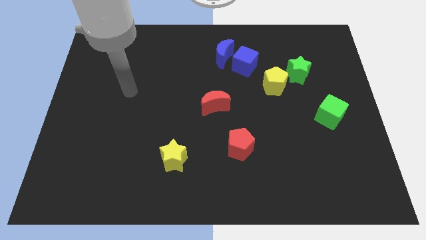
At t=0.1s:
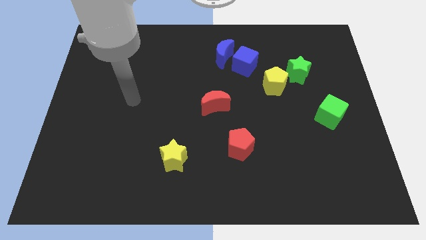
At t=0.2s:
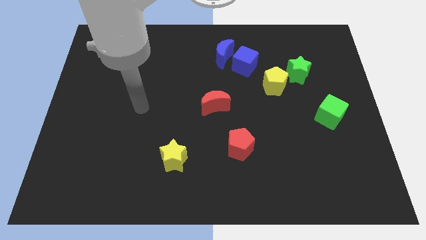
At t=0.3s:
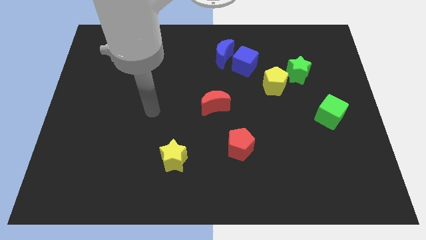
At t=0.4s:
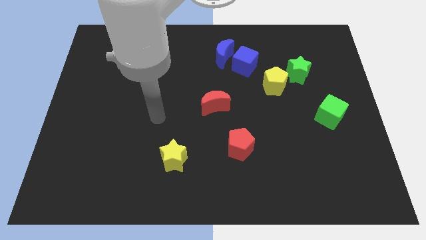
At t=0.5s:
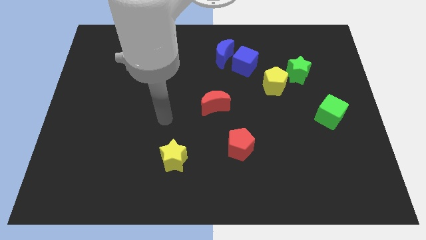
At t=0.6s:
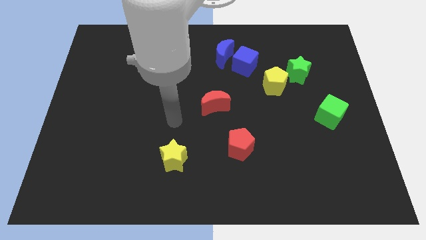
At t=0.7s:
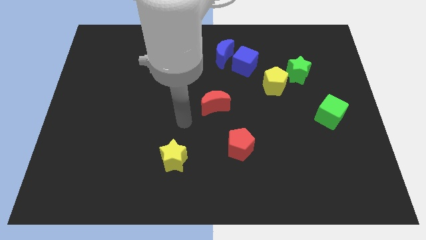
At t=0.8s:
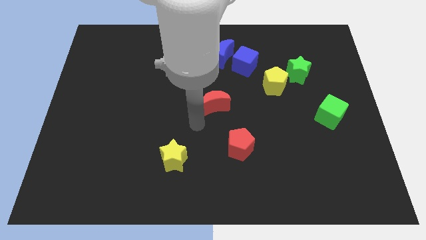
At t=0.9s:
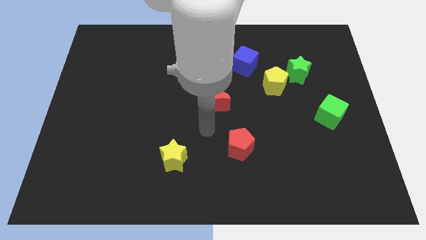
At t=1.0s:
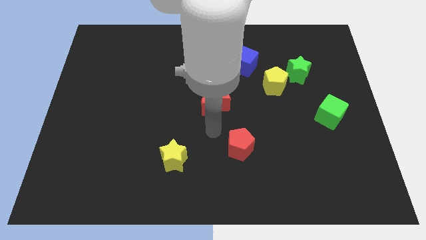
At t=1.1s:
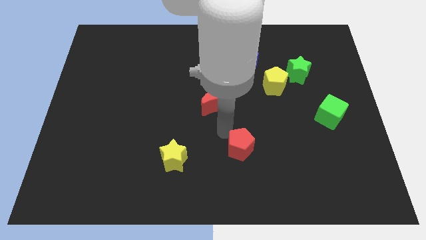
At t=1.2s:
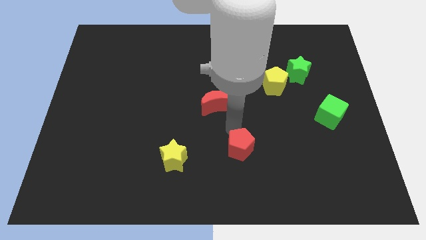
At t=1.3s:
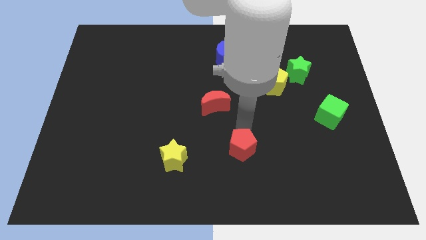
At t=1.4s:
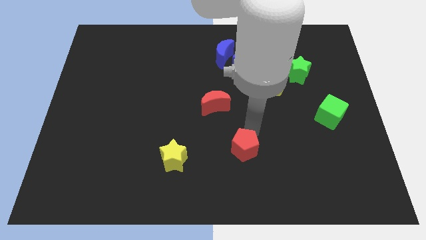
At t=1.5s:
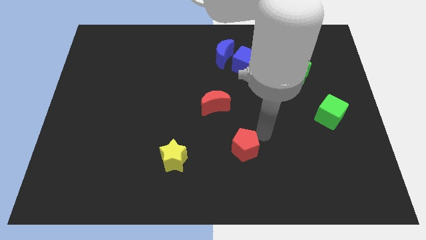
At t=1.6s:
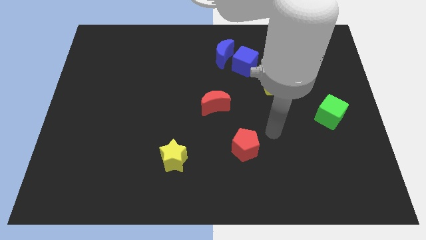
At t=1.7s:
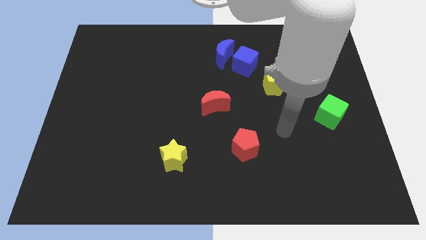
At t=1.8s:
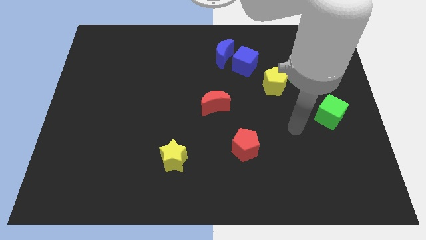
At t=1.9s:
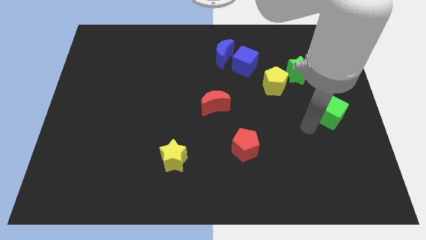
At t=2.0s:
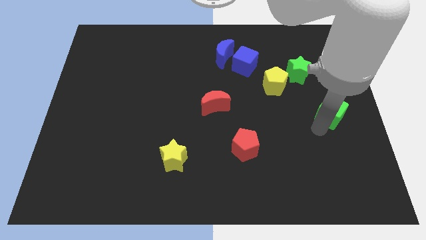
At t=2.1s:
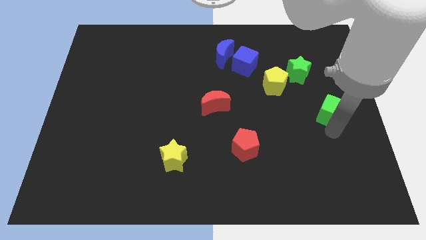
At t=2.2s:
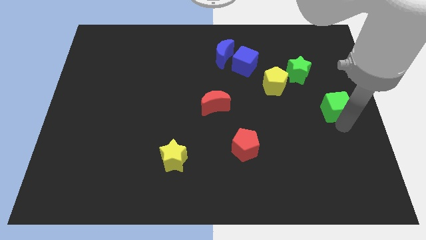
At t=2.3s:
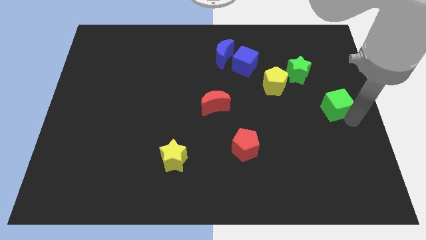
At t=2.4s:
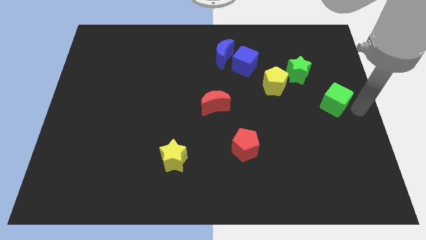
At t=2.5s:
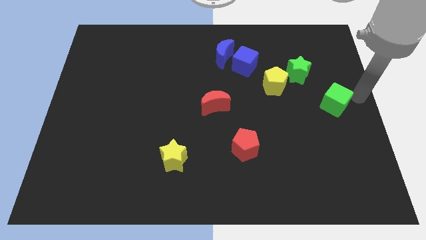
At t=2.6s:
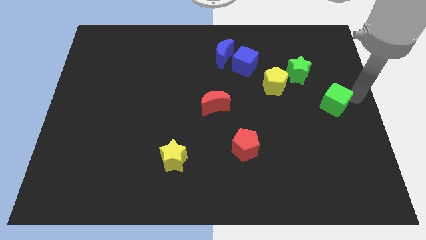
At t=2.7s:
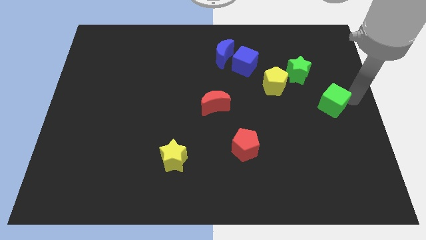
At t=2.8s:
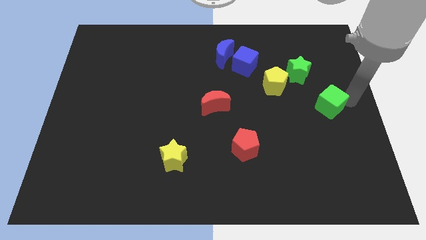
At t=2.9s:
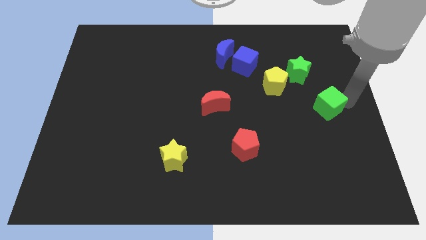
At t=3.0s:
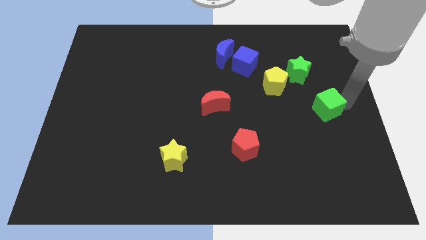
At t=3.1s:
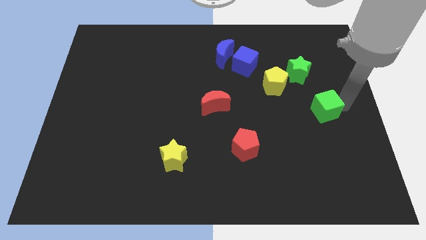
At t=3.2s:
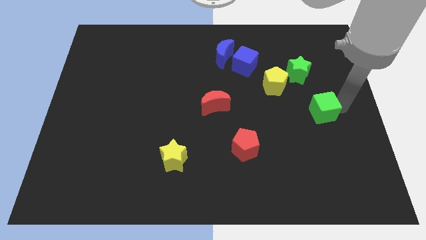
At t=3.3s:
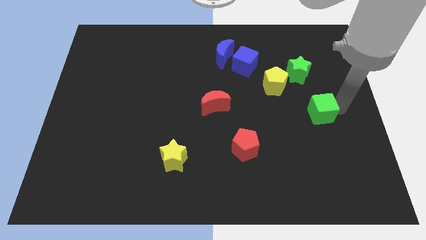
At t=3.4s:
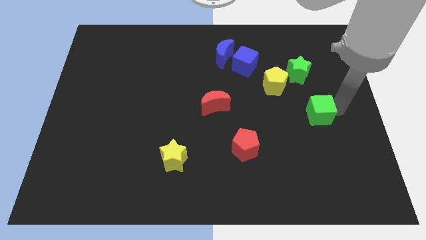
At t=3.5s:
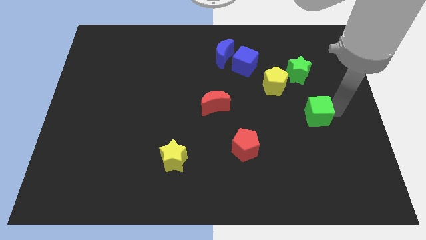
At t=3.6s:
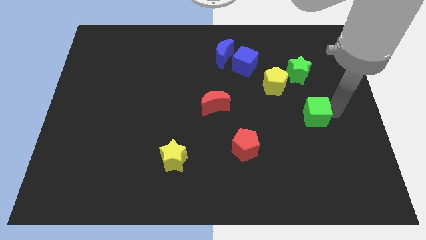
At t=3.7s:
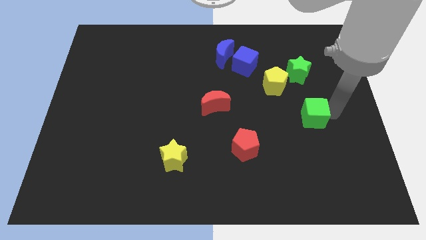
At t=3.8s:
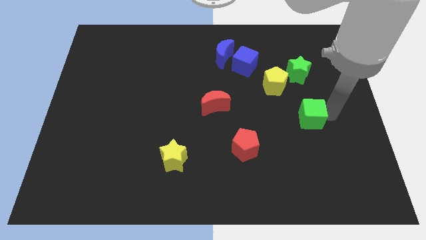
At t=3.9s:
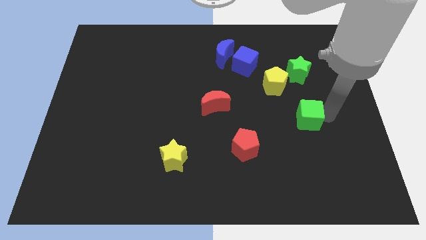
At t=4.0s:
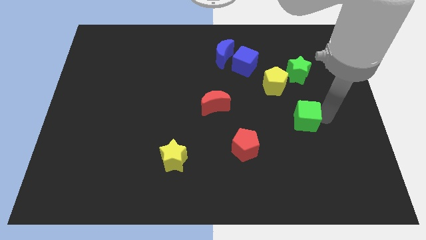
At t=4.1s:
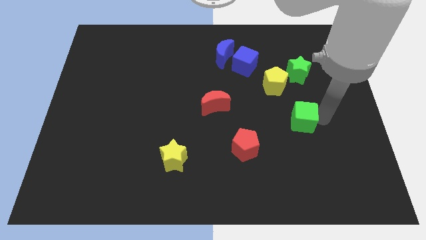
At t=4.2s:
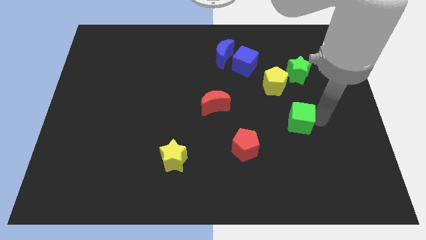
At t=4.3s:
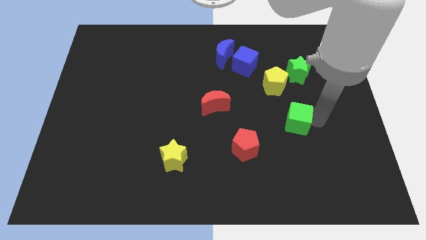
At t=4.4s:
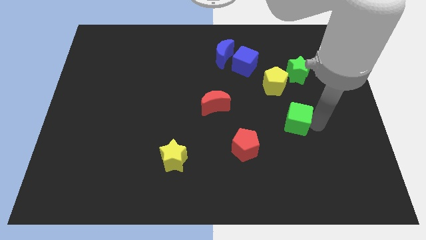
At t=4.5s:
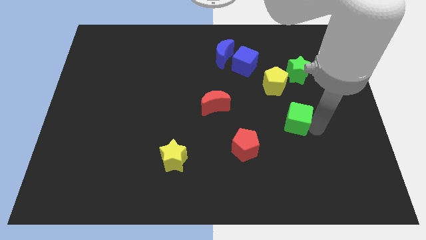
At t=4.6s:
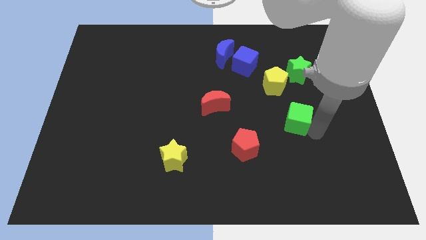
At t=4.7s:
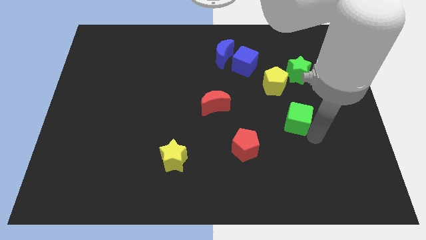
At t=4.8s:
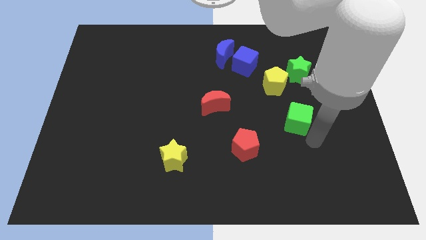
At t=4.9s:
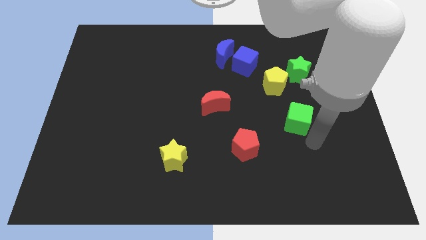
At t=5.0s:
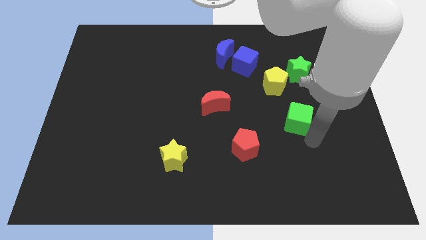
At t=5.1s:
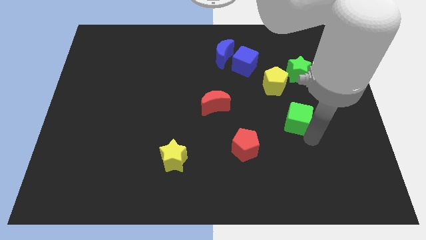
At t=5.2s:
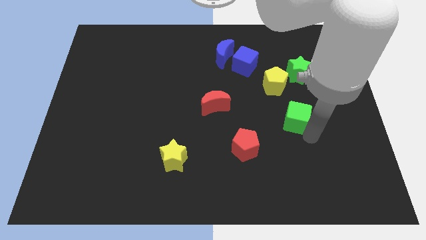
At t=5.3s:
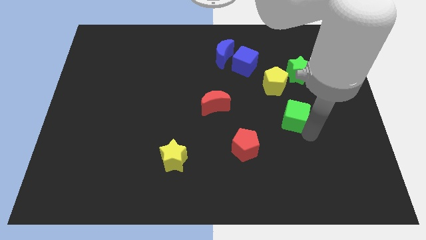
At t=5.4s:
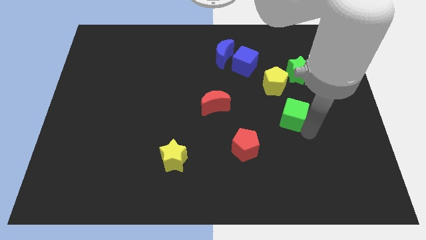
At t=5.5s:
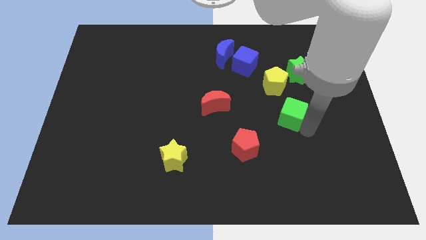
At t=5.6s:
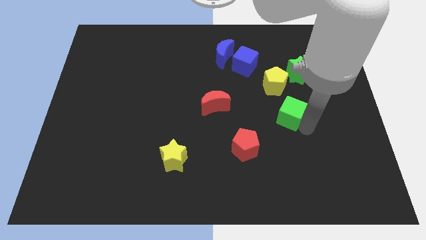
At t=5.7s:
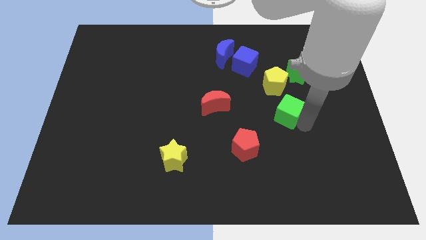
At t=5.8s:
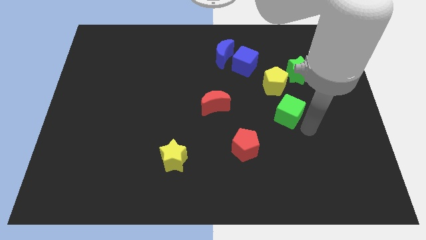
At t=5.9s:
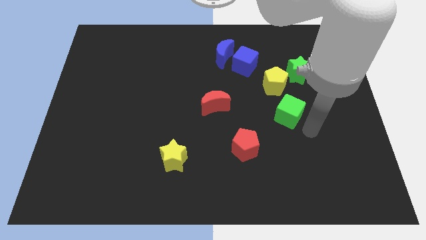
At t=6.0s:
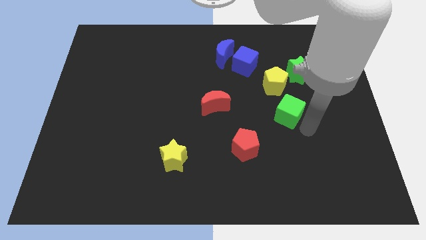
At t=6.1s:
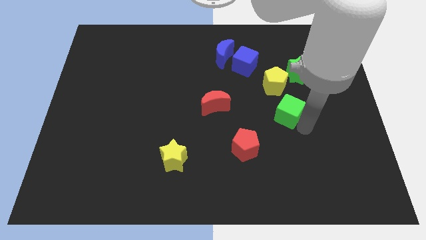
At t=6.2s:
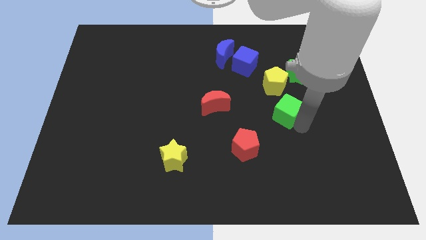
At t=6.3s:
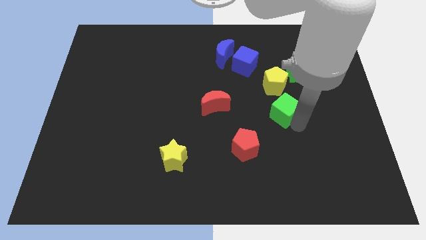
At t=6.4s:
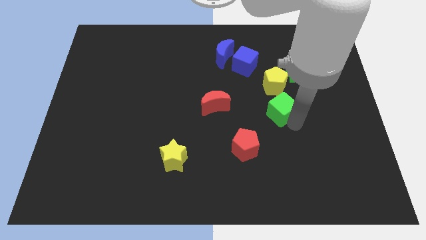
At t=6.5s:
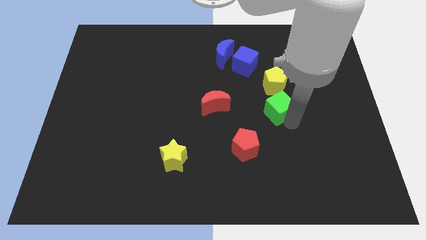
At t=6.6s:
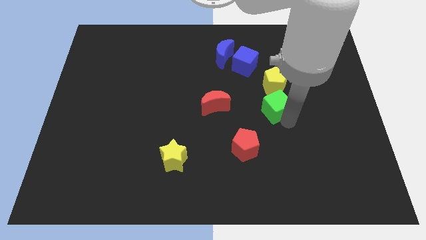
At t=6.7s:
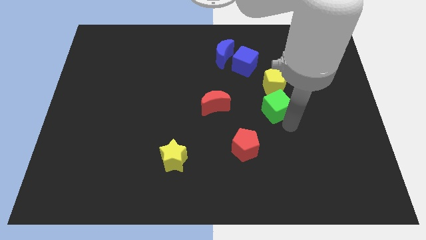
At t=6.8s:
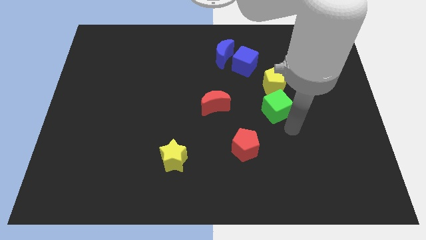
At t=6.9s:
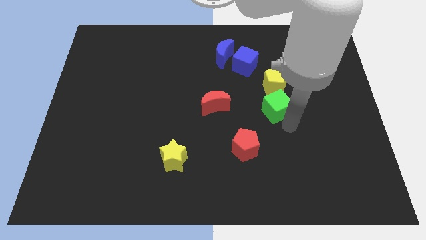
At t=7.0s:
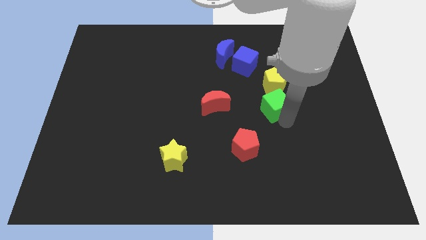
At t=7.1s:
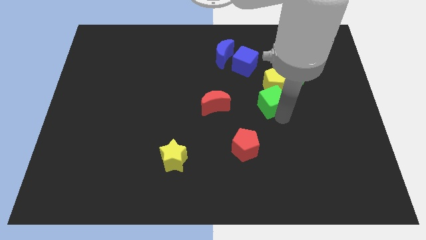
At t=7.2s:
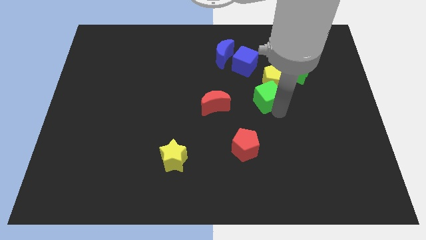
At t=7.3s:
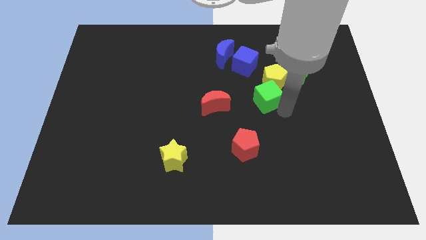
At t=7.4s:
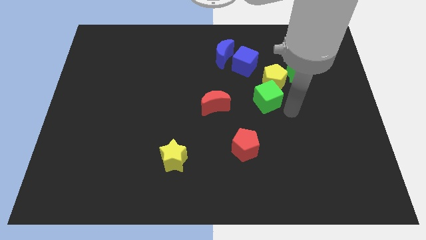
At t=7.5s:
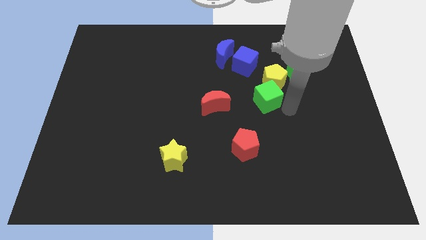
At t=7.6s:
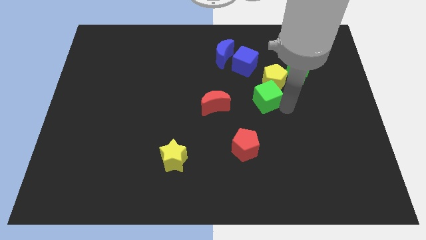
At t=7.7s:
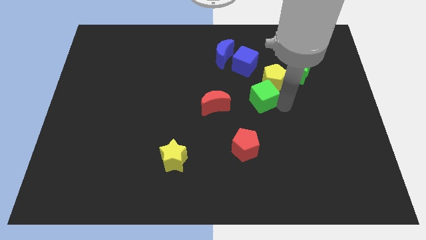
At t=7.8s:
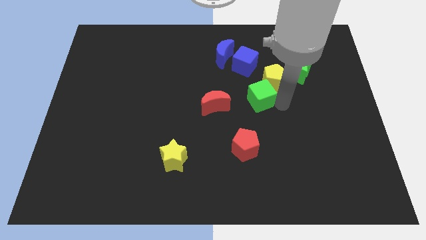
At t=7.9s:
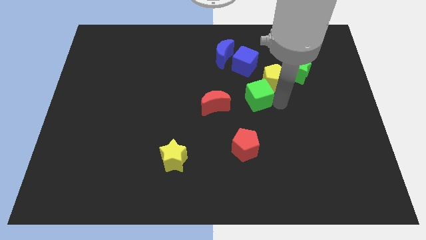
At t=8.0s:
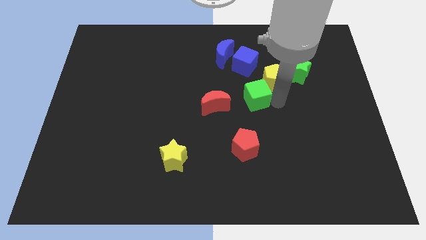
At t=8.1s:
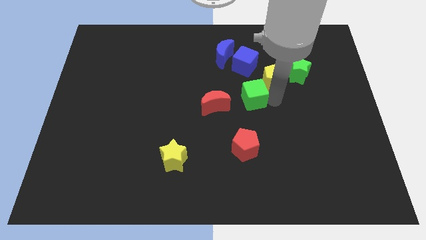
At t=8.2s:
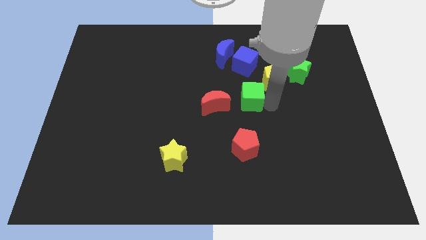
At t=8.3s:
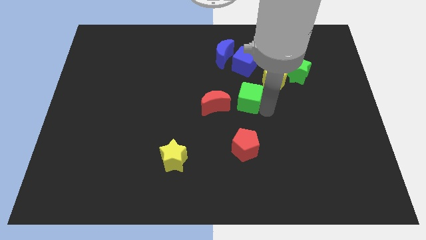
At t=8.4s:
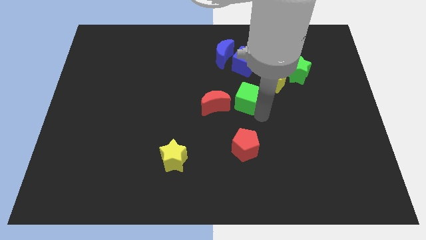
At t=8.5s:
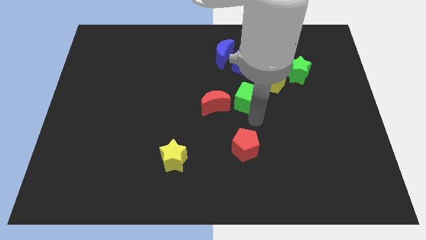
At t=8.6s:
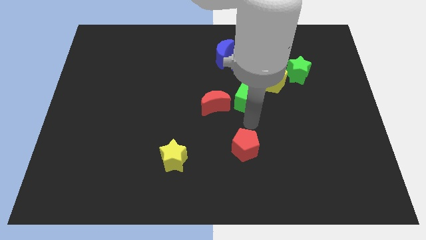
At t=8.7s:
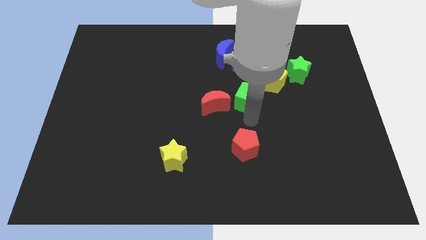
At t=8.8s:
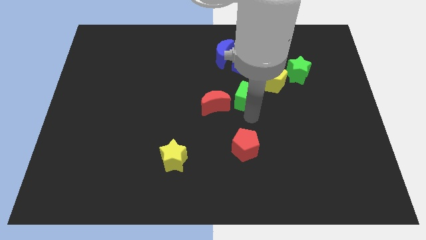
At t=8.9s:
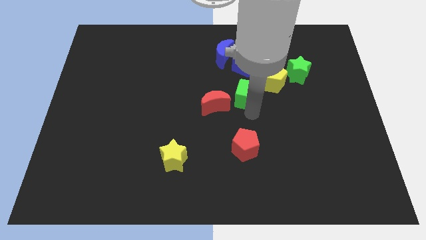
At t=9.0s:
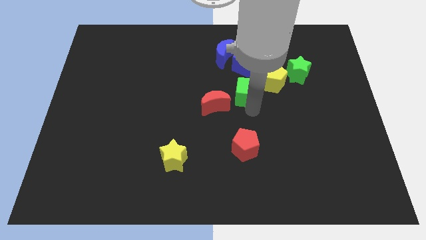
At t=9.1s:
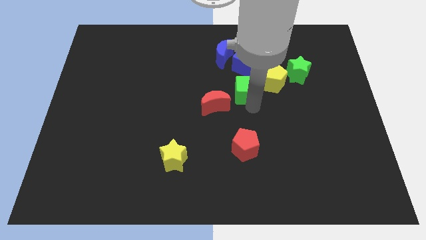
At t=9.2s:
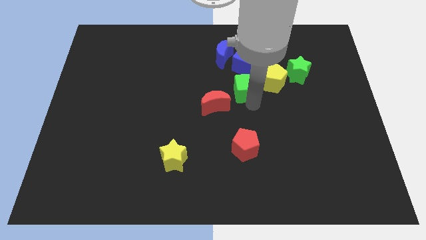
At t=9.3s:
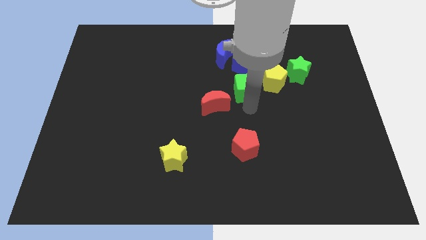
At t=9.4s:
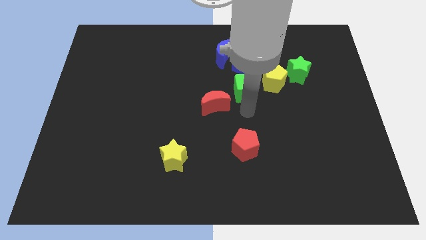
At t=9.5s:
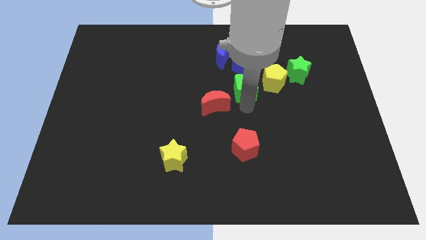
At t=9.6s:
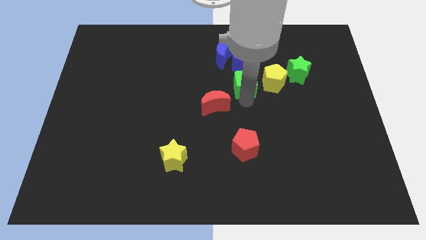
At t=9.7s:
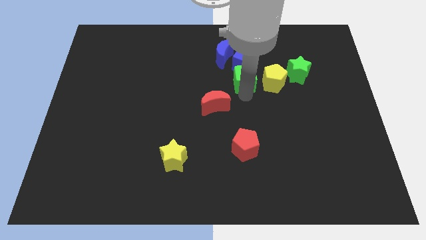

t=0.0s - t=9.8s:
push the green cube to the bottom right side of the blue moon
